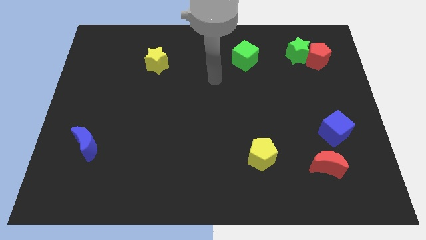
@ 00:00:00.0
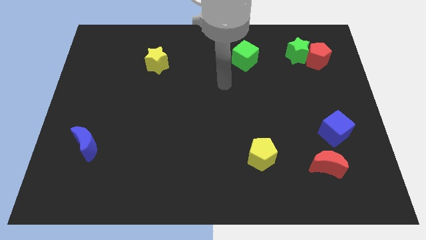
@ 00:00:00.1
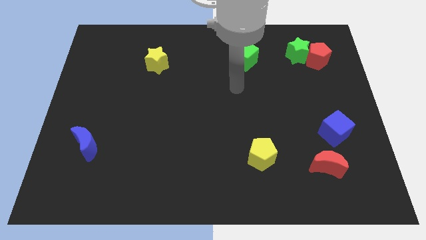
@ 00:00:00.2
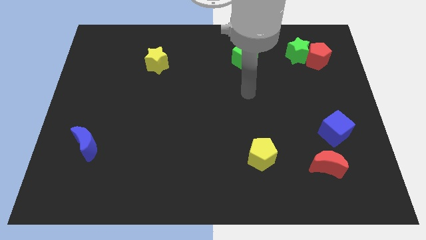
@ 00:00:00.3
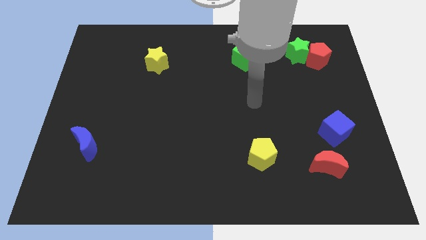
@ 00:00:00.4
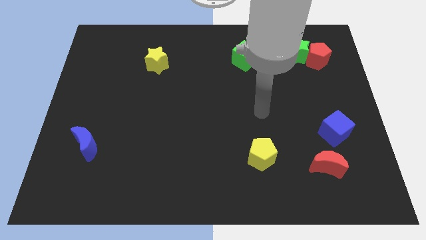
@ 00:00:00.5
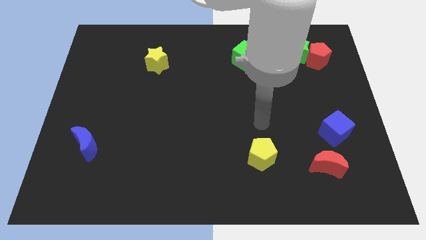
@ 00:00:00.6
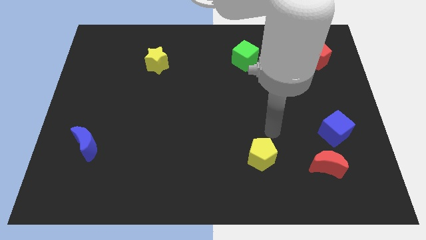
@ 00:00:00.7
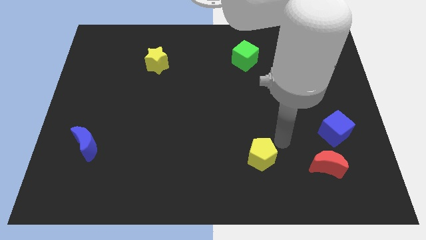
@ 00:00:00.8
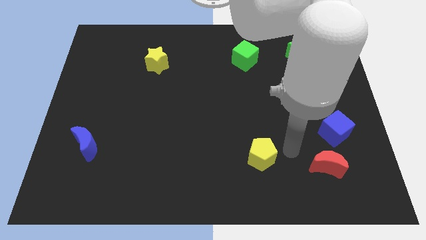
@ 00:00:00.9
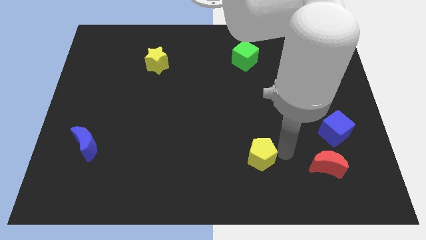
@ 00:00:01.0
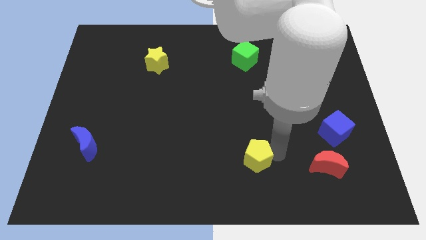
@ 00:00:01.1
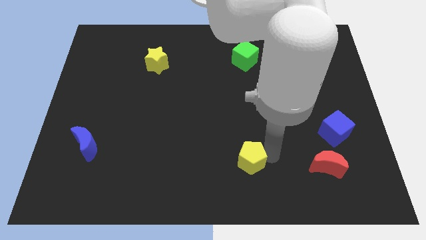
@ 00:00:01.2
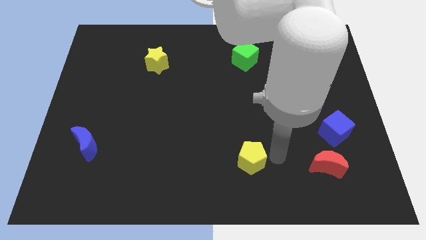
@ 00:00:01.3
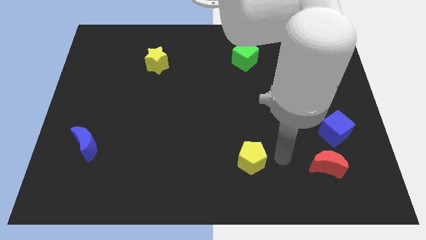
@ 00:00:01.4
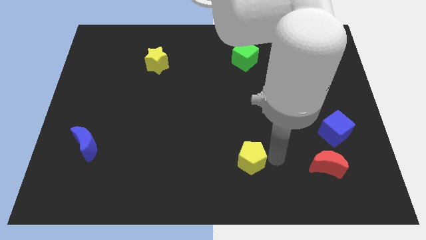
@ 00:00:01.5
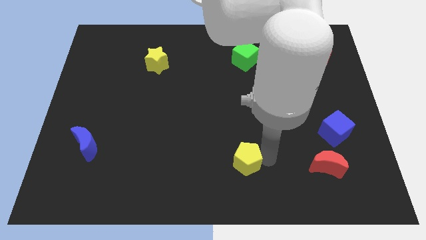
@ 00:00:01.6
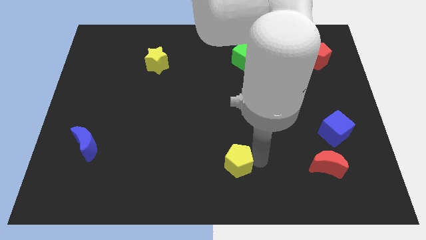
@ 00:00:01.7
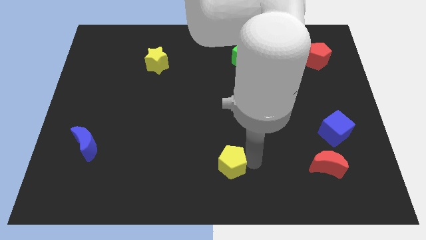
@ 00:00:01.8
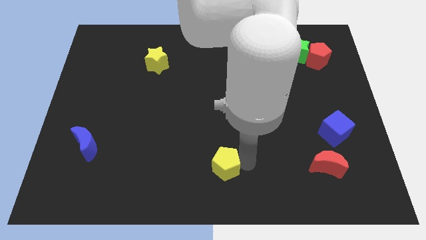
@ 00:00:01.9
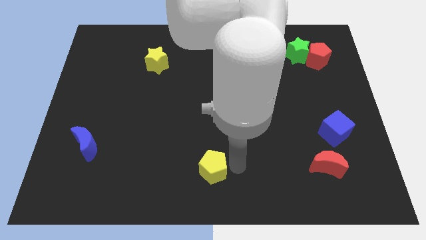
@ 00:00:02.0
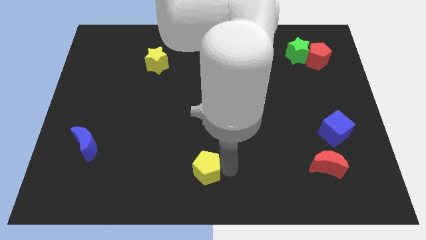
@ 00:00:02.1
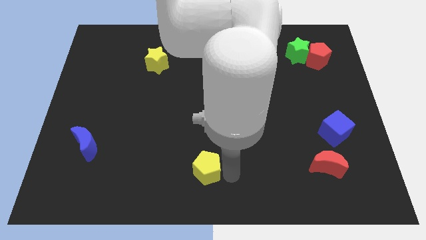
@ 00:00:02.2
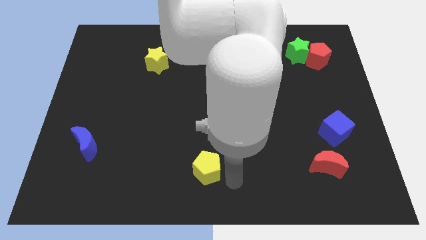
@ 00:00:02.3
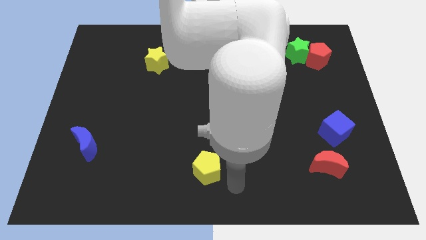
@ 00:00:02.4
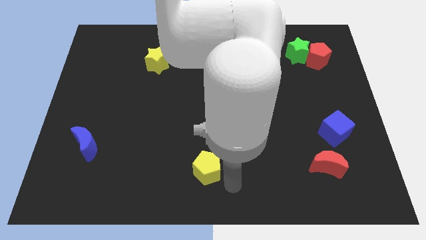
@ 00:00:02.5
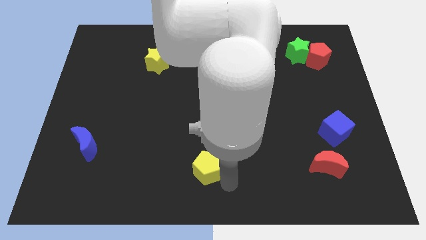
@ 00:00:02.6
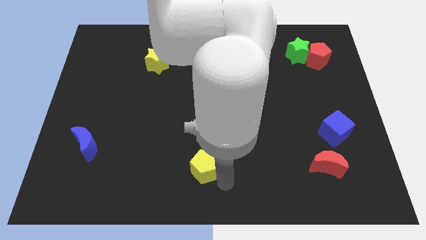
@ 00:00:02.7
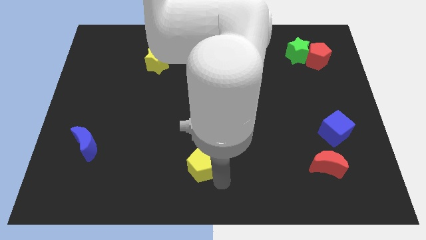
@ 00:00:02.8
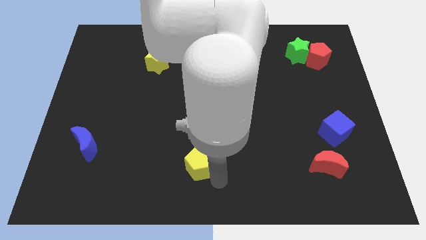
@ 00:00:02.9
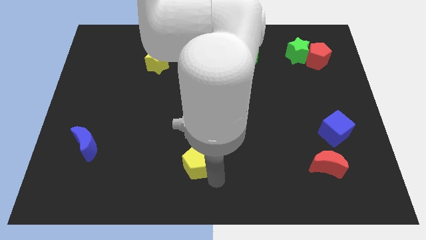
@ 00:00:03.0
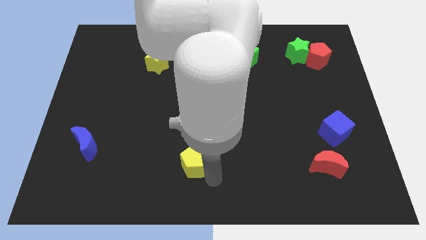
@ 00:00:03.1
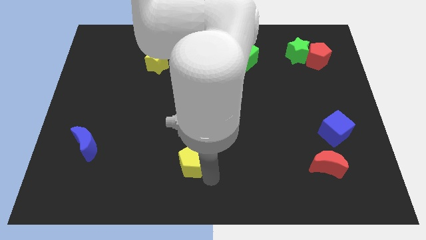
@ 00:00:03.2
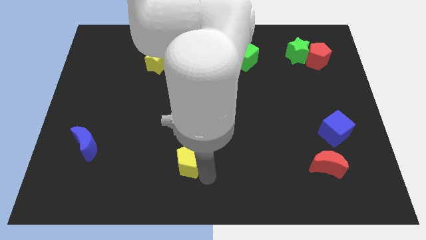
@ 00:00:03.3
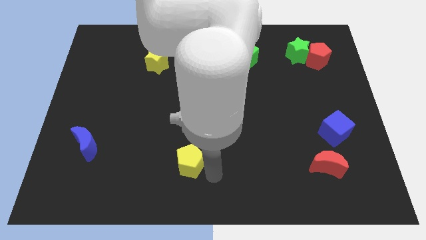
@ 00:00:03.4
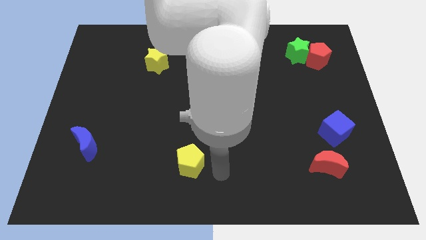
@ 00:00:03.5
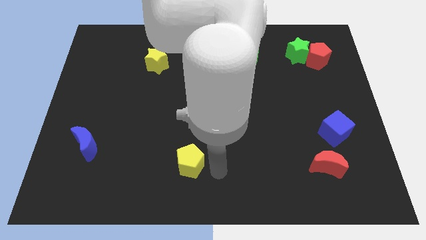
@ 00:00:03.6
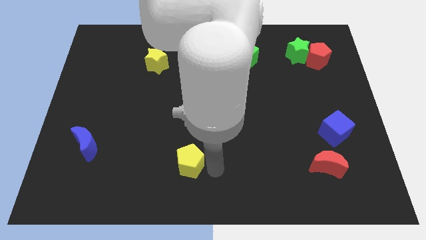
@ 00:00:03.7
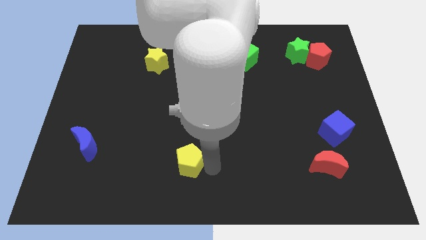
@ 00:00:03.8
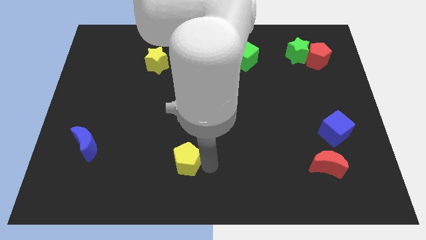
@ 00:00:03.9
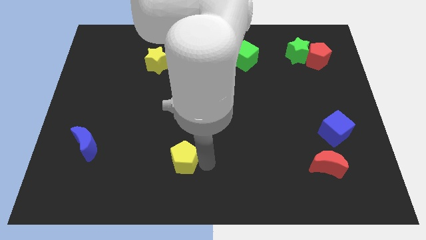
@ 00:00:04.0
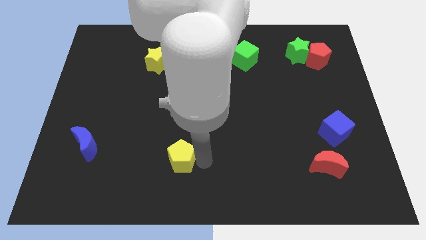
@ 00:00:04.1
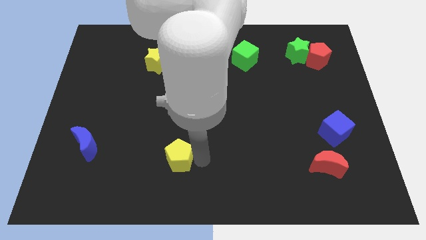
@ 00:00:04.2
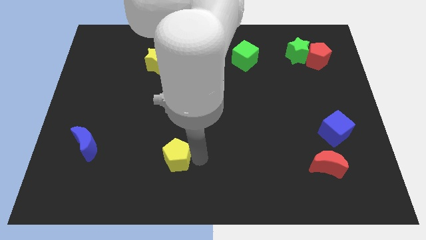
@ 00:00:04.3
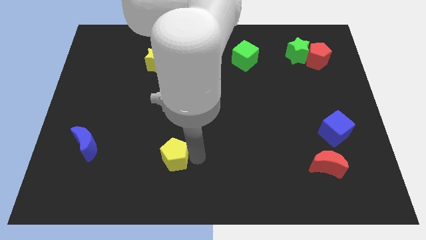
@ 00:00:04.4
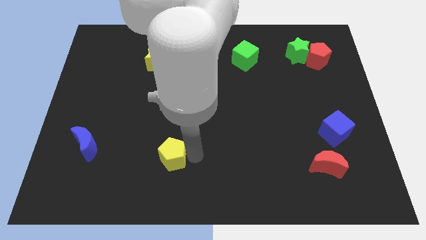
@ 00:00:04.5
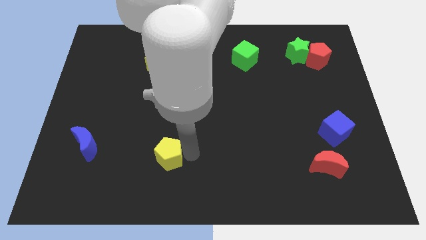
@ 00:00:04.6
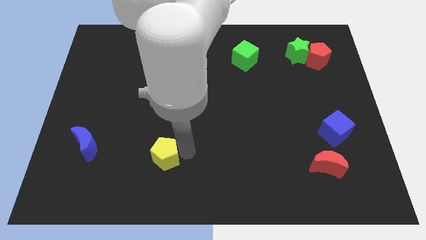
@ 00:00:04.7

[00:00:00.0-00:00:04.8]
push the yellow pentagon to the left

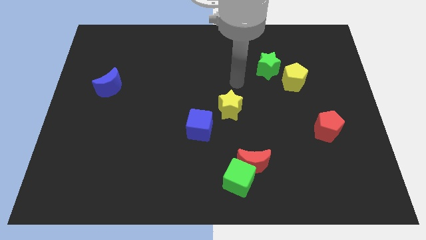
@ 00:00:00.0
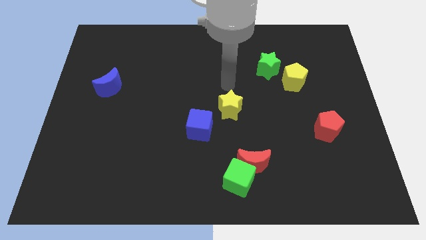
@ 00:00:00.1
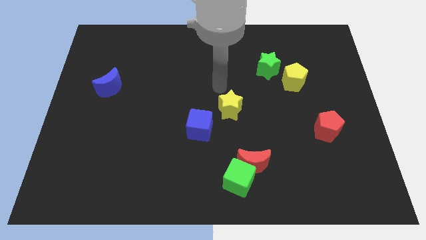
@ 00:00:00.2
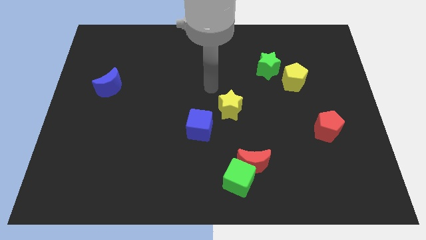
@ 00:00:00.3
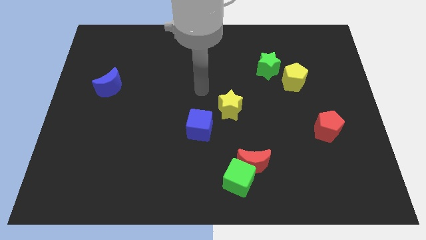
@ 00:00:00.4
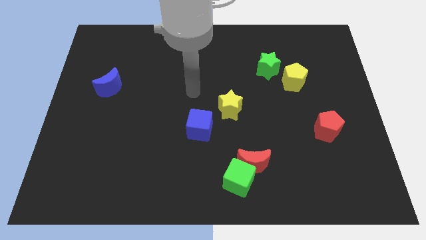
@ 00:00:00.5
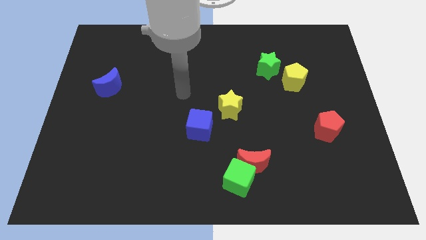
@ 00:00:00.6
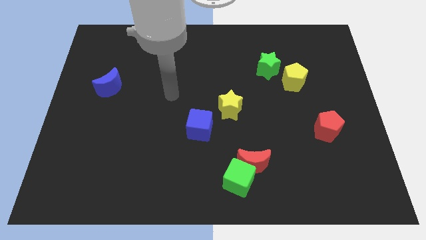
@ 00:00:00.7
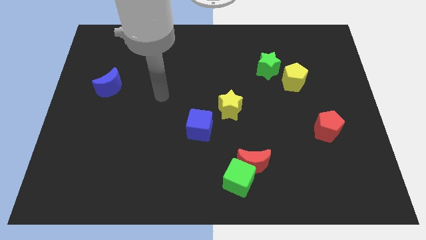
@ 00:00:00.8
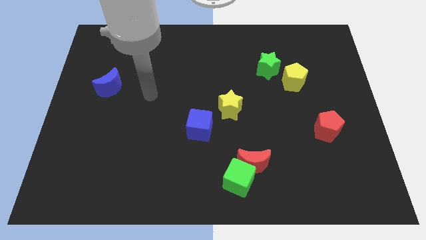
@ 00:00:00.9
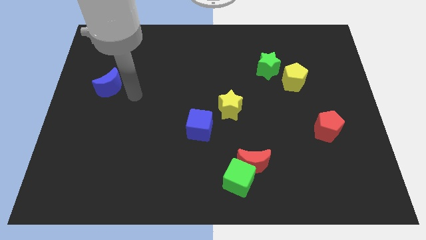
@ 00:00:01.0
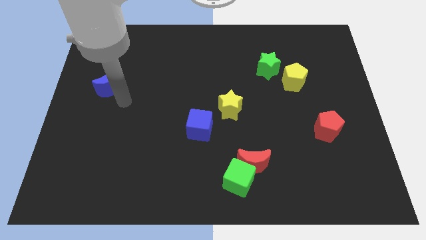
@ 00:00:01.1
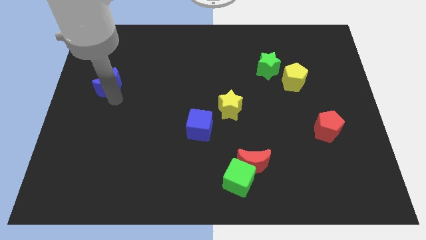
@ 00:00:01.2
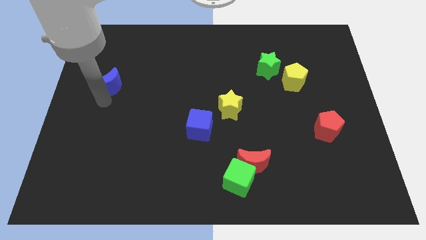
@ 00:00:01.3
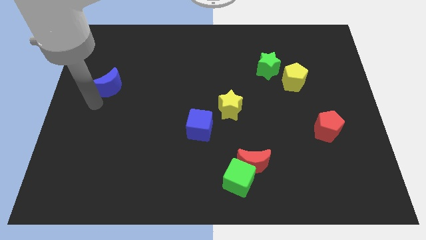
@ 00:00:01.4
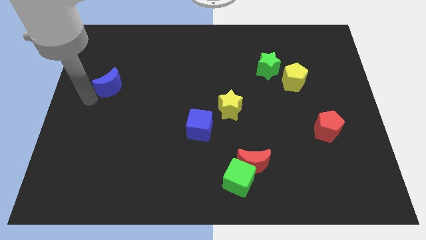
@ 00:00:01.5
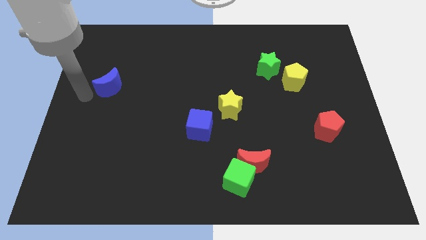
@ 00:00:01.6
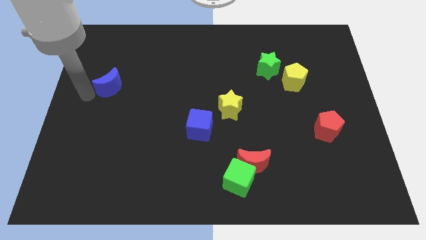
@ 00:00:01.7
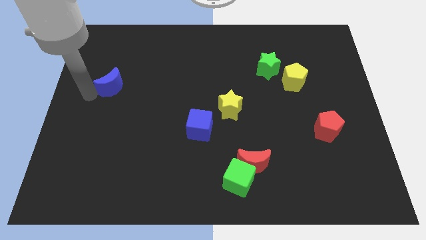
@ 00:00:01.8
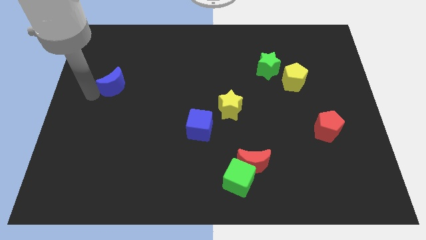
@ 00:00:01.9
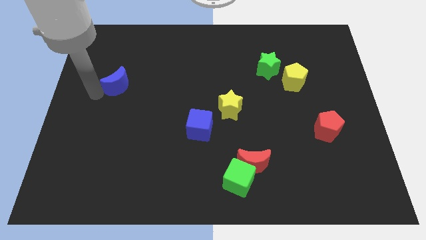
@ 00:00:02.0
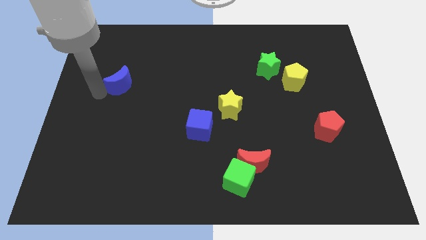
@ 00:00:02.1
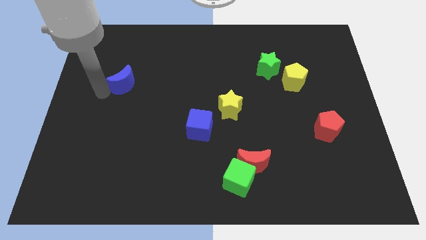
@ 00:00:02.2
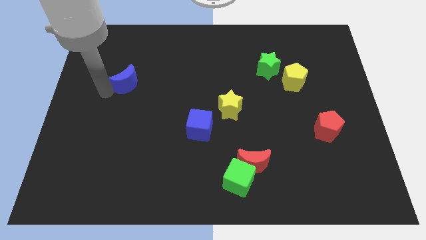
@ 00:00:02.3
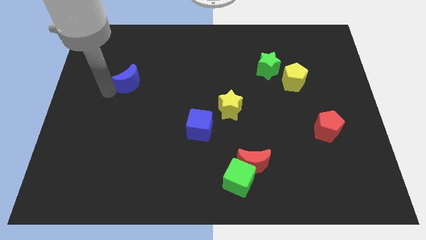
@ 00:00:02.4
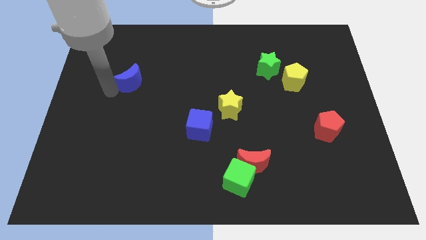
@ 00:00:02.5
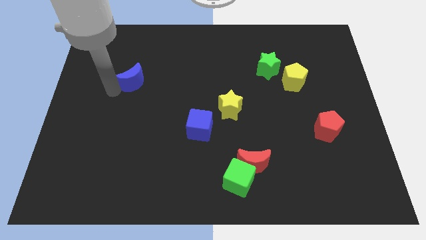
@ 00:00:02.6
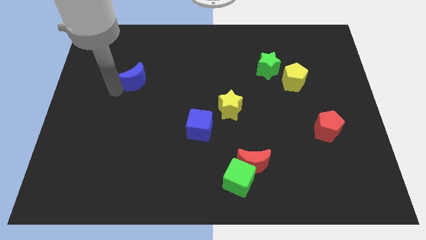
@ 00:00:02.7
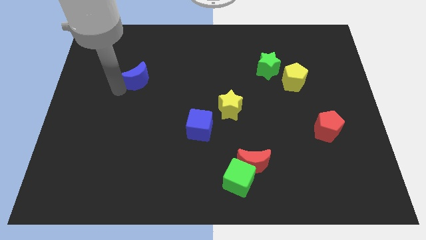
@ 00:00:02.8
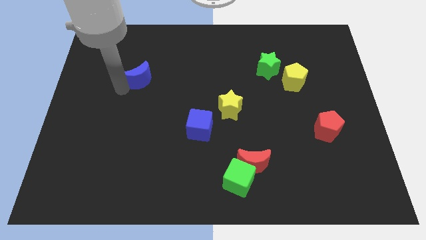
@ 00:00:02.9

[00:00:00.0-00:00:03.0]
slide the blue moon right somewhat
